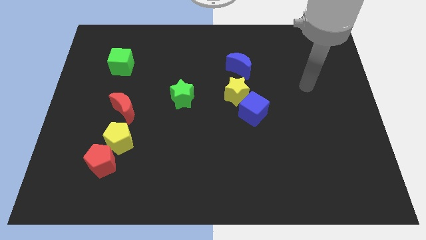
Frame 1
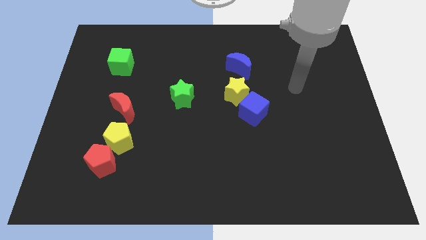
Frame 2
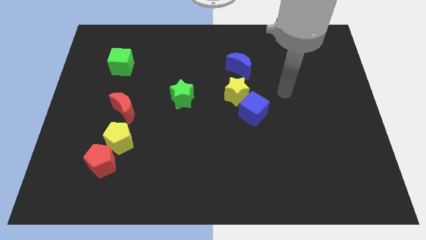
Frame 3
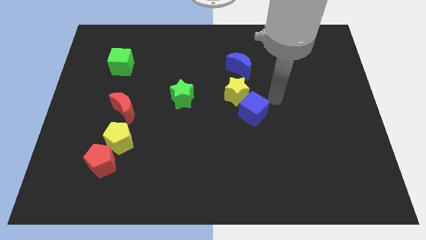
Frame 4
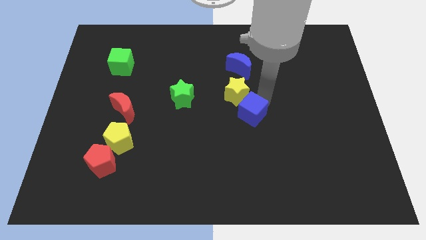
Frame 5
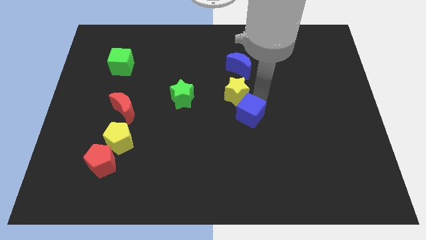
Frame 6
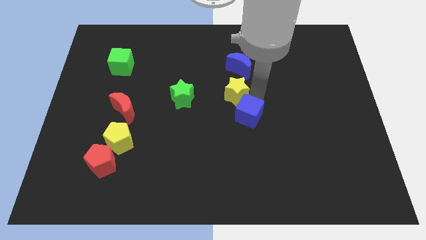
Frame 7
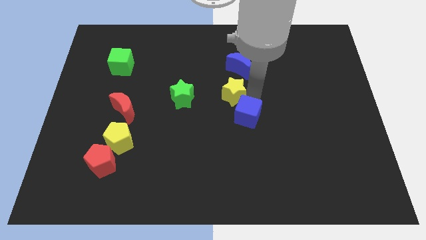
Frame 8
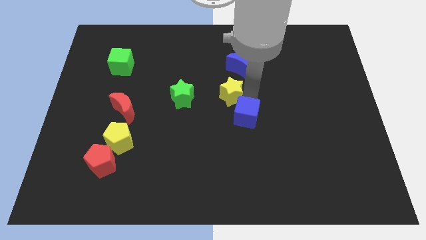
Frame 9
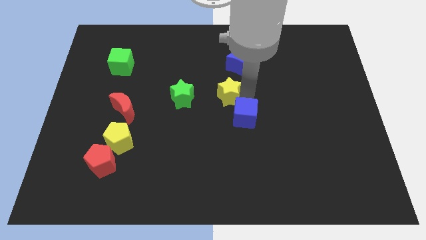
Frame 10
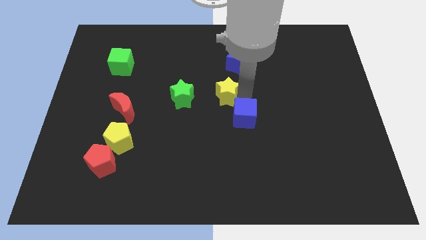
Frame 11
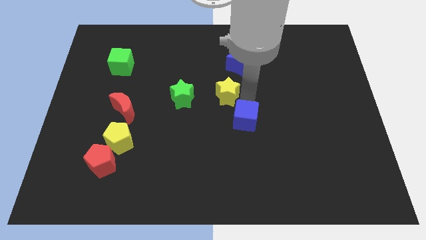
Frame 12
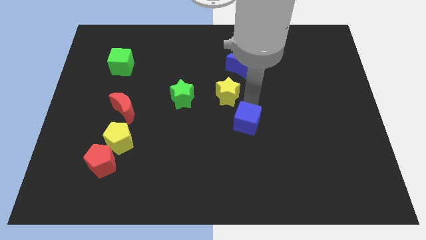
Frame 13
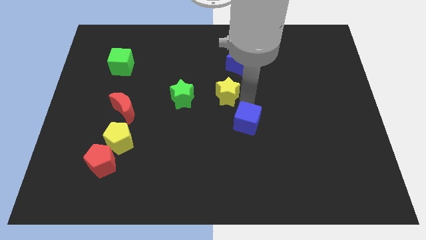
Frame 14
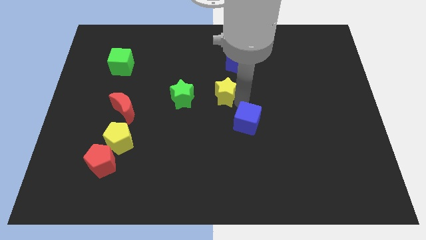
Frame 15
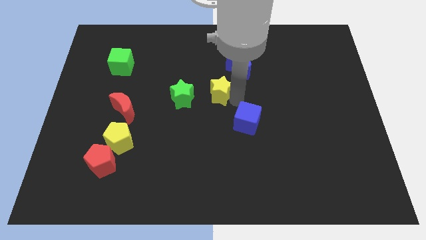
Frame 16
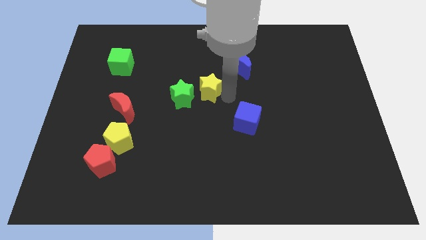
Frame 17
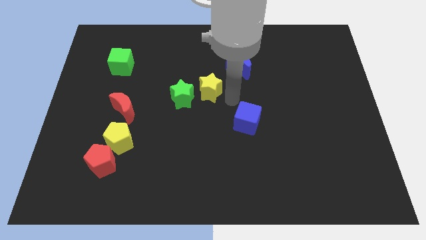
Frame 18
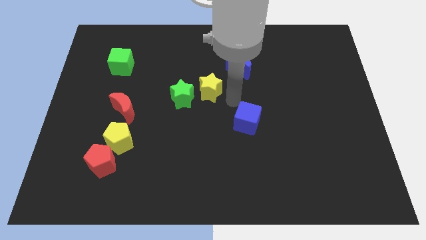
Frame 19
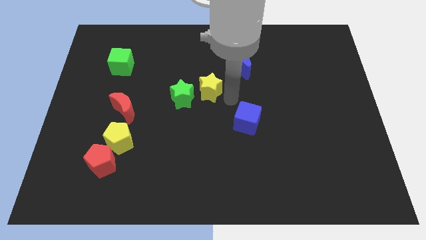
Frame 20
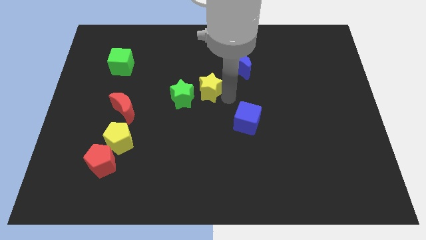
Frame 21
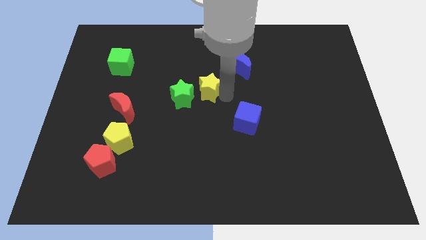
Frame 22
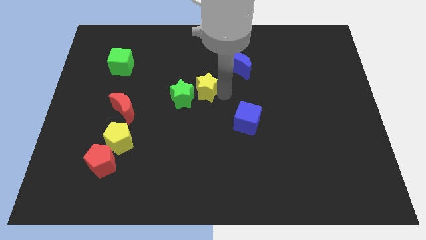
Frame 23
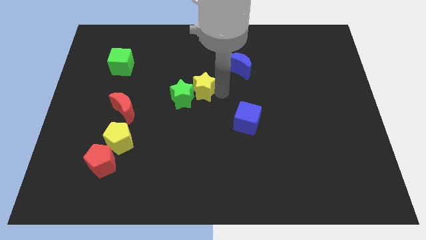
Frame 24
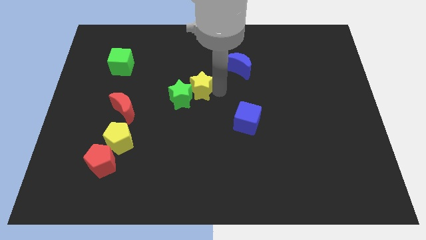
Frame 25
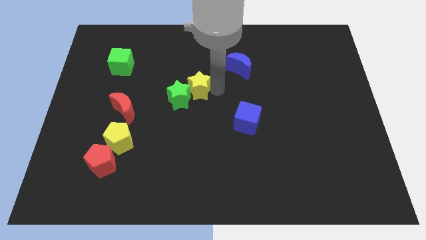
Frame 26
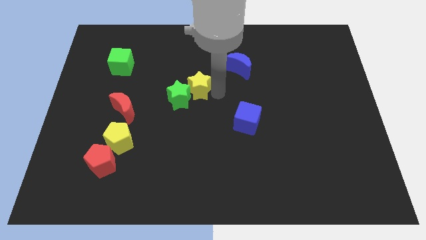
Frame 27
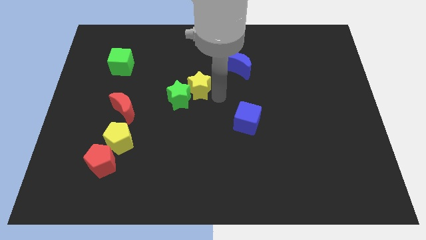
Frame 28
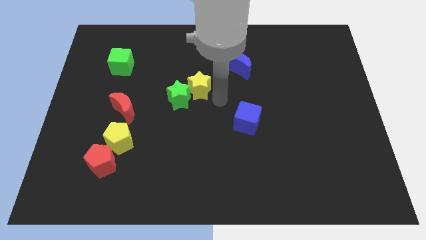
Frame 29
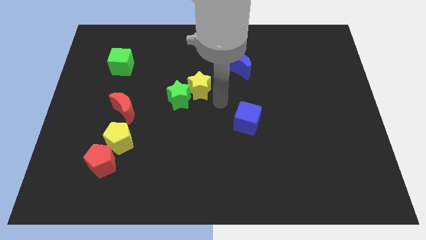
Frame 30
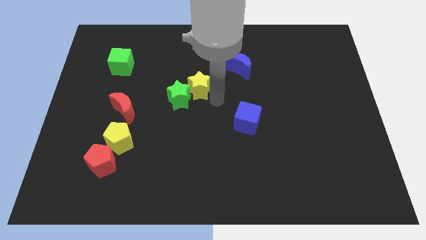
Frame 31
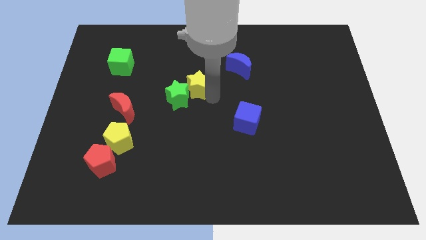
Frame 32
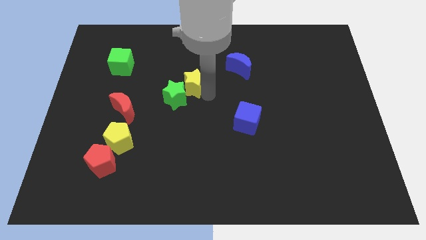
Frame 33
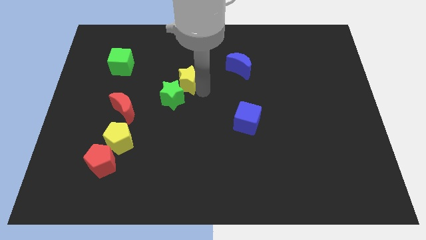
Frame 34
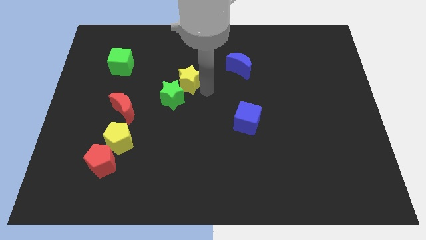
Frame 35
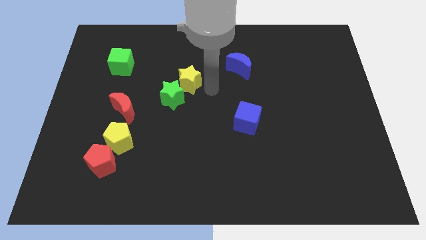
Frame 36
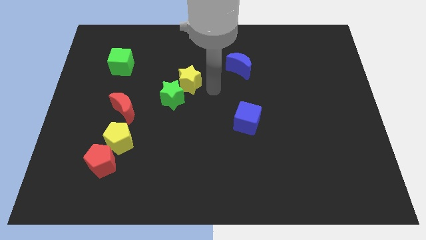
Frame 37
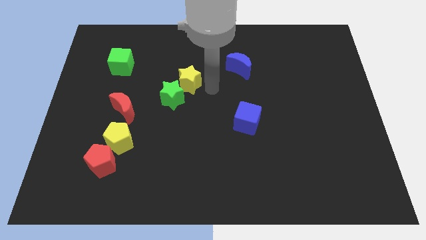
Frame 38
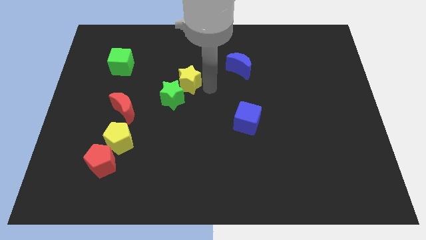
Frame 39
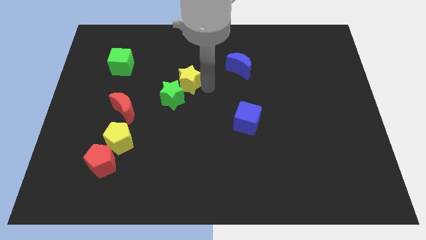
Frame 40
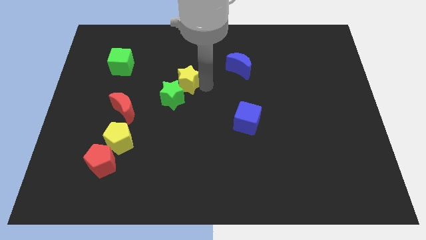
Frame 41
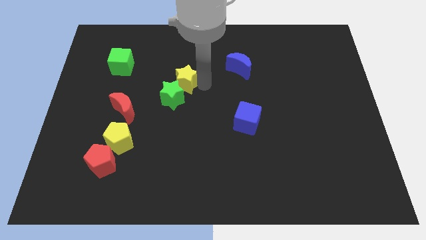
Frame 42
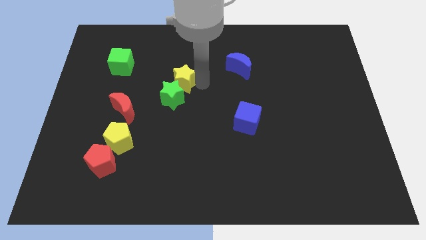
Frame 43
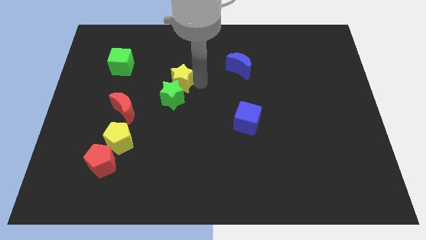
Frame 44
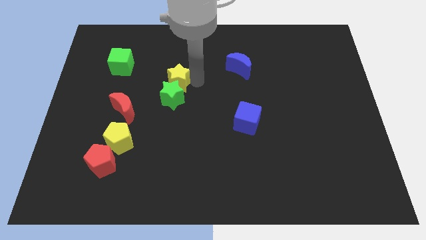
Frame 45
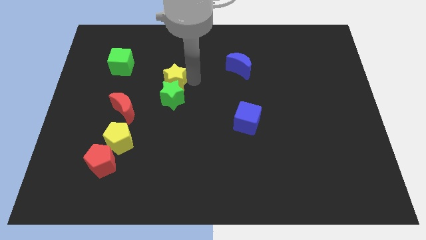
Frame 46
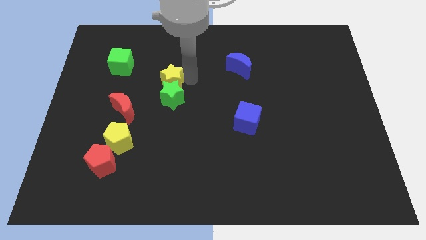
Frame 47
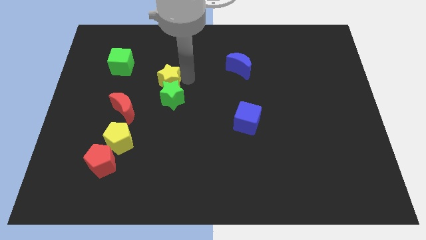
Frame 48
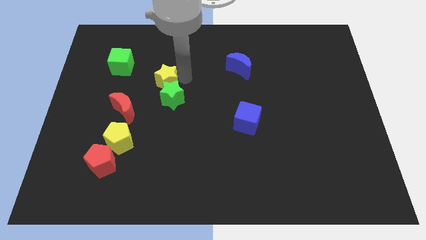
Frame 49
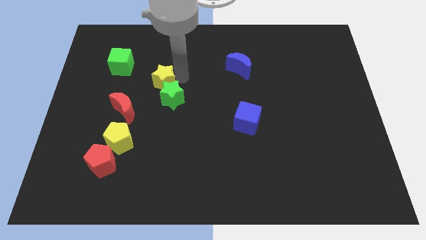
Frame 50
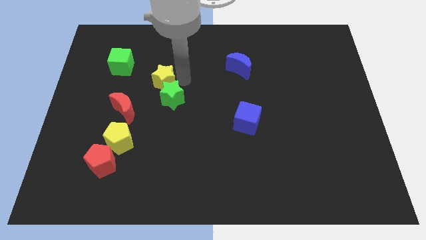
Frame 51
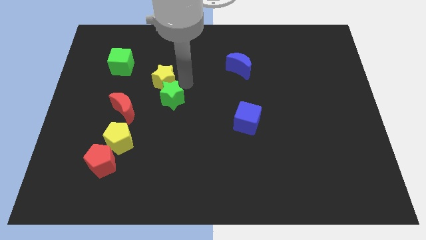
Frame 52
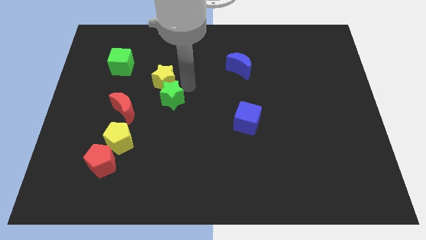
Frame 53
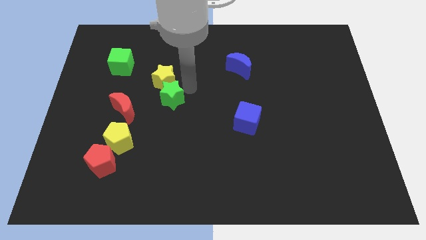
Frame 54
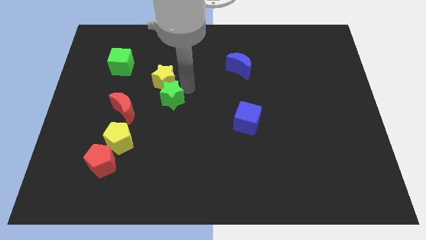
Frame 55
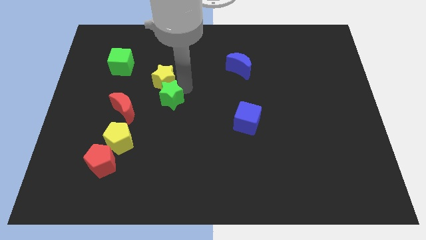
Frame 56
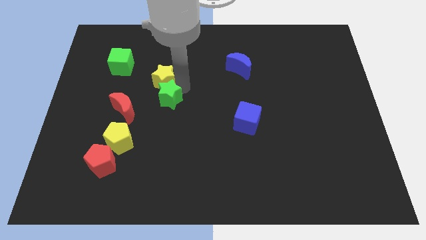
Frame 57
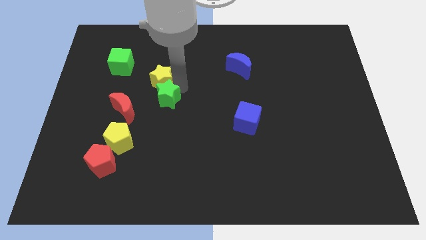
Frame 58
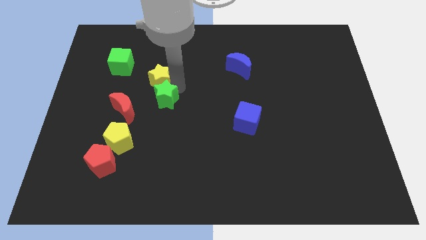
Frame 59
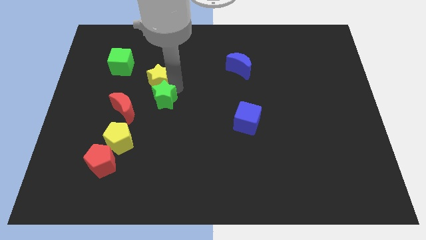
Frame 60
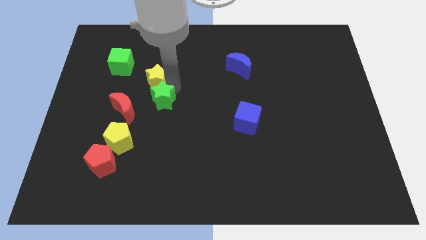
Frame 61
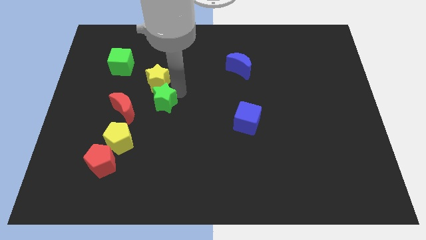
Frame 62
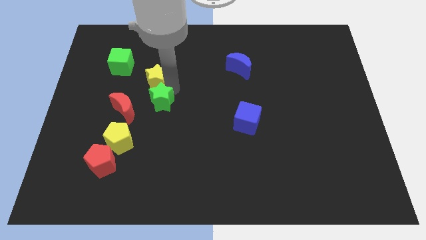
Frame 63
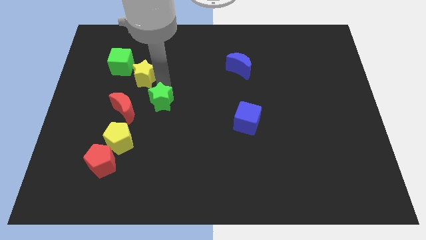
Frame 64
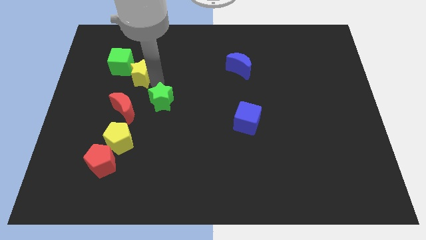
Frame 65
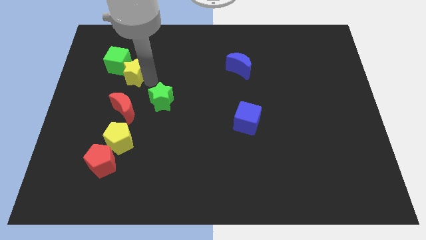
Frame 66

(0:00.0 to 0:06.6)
put the yellow star close to the green cube
